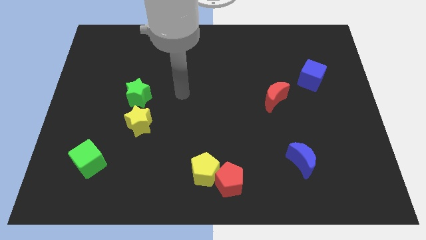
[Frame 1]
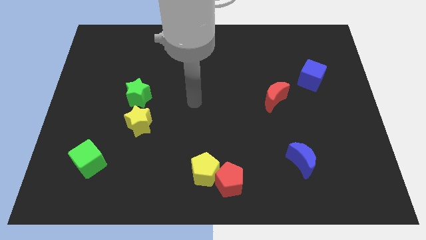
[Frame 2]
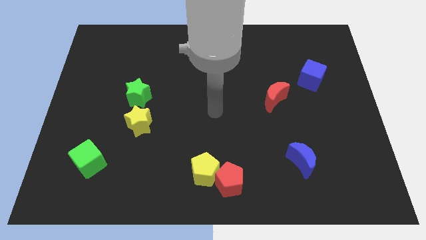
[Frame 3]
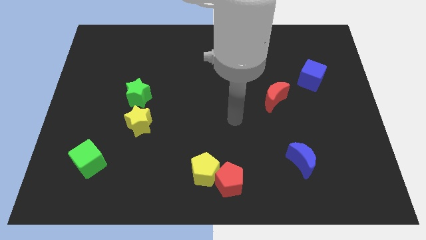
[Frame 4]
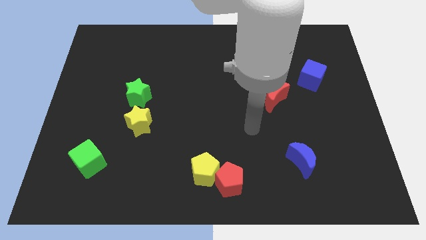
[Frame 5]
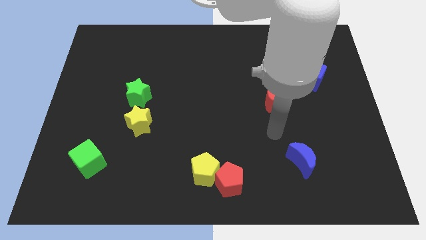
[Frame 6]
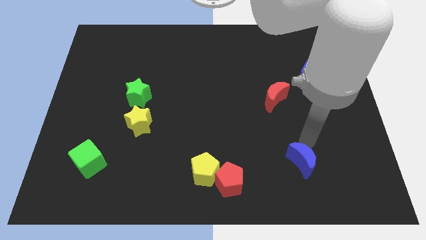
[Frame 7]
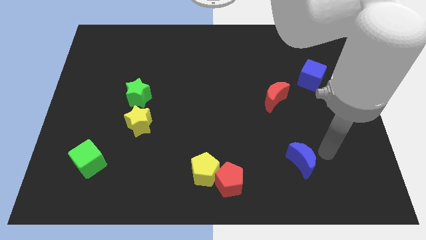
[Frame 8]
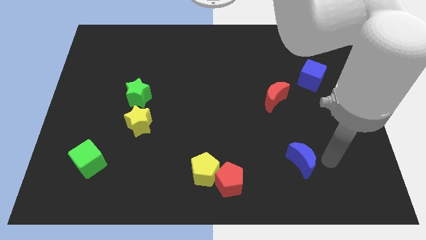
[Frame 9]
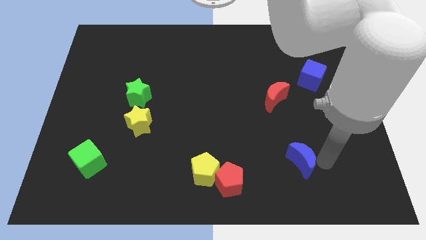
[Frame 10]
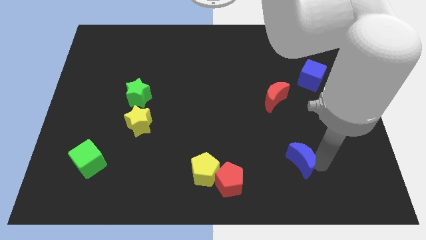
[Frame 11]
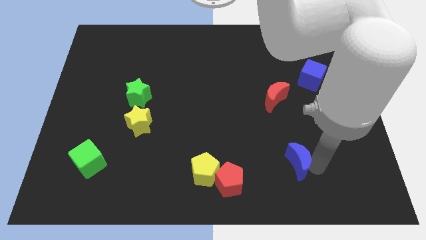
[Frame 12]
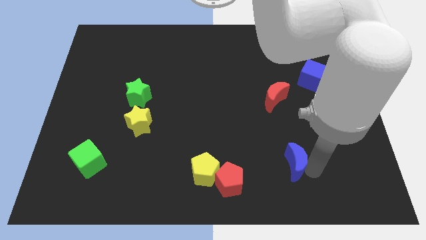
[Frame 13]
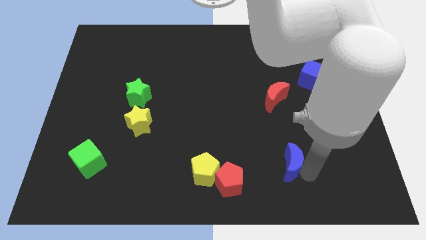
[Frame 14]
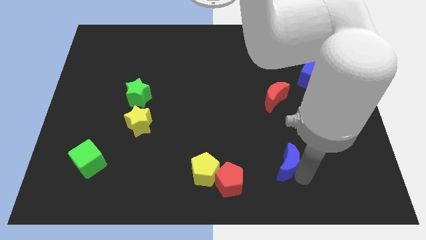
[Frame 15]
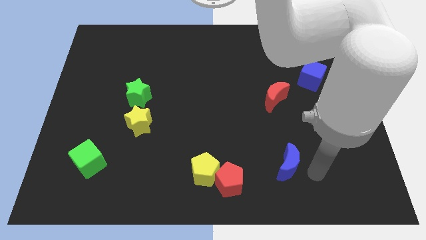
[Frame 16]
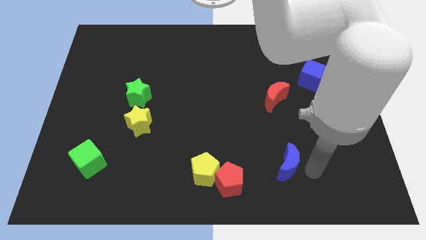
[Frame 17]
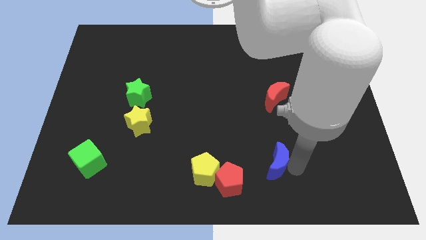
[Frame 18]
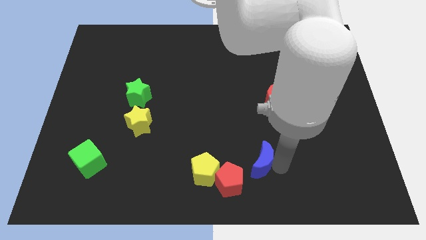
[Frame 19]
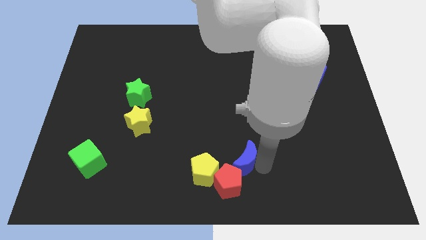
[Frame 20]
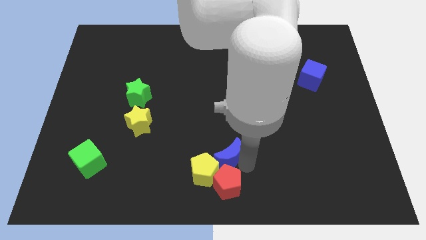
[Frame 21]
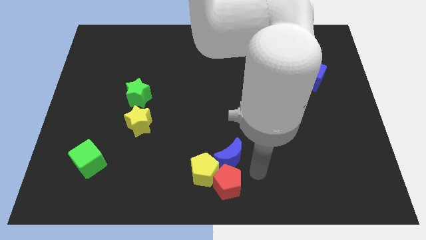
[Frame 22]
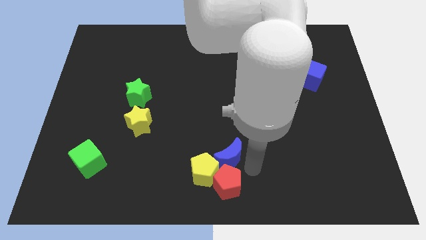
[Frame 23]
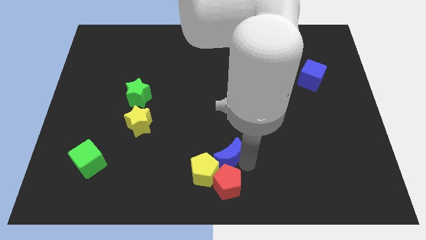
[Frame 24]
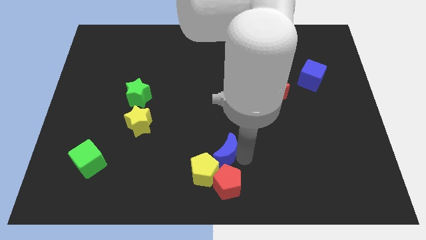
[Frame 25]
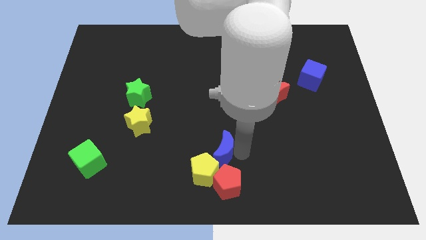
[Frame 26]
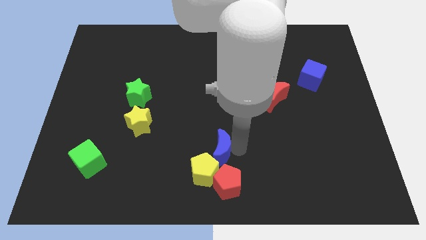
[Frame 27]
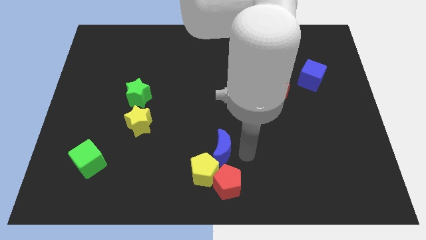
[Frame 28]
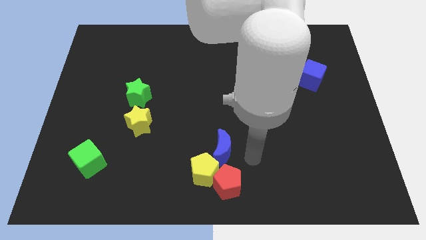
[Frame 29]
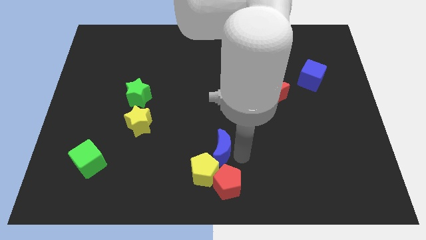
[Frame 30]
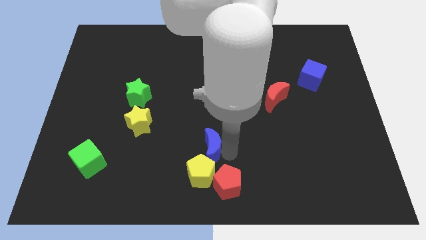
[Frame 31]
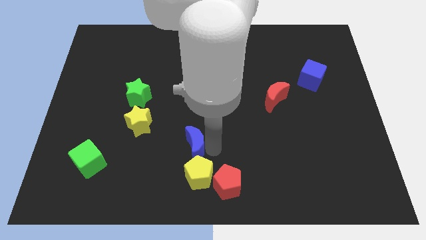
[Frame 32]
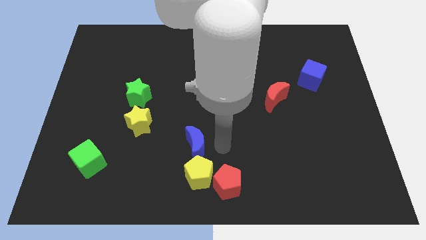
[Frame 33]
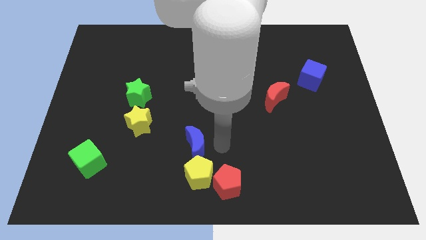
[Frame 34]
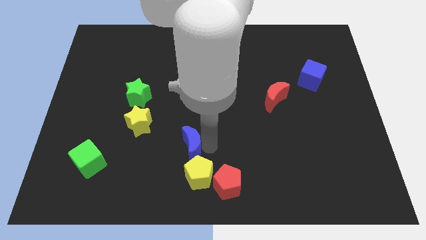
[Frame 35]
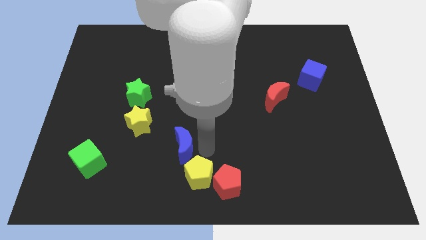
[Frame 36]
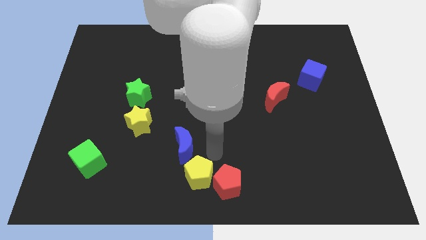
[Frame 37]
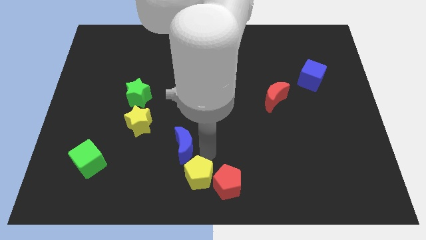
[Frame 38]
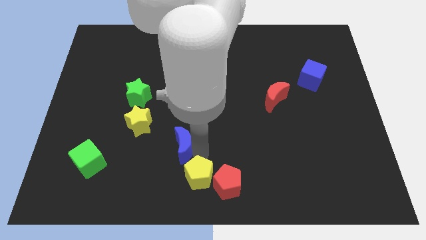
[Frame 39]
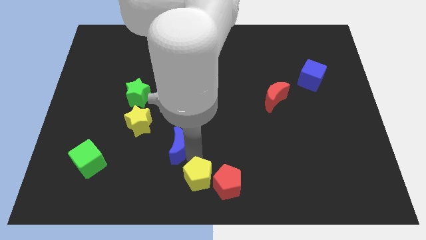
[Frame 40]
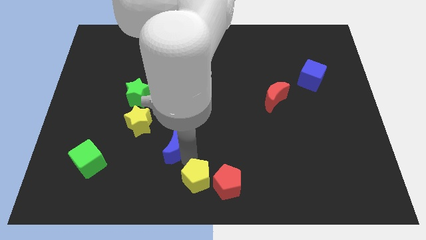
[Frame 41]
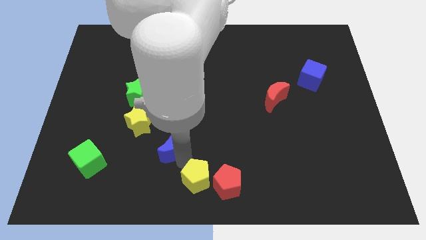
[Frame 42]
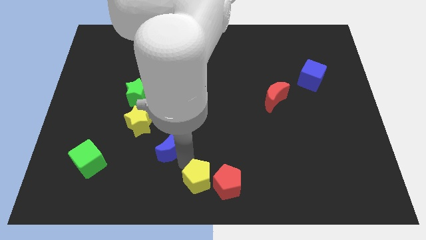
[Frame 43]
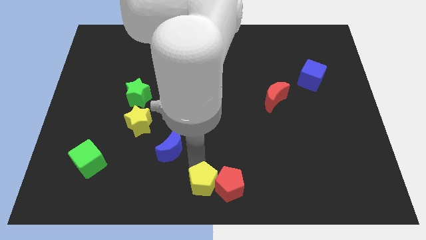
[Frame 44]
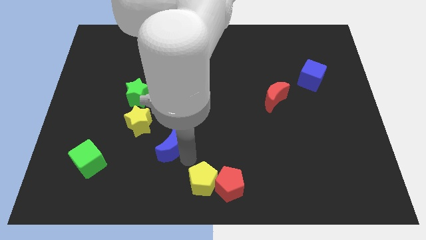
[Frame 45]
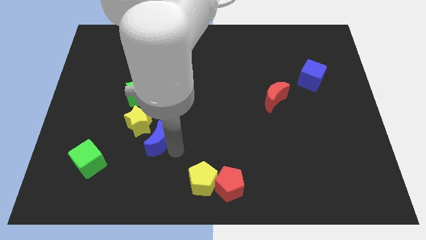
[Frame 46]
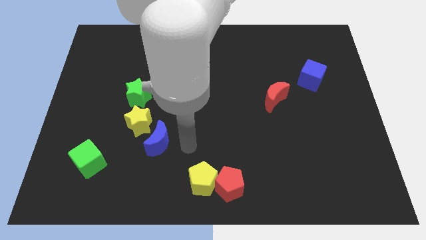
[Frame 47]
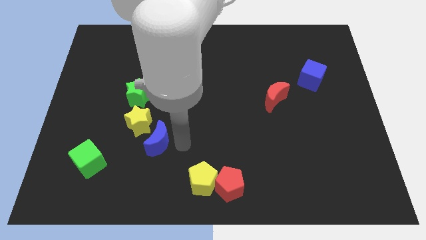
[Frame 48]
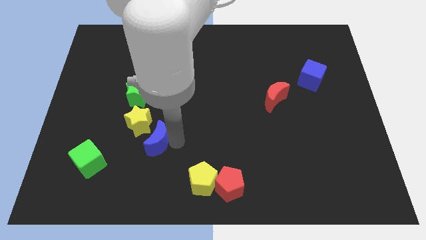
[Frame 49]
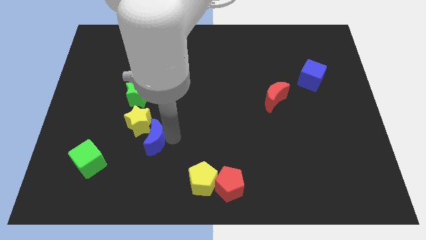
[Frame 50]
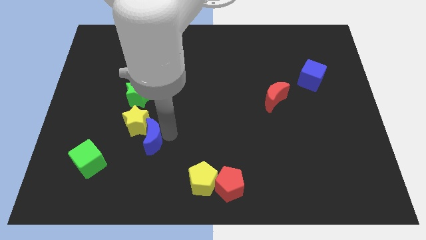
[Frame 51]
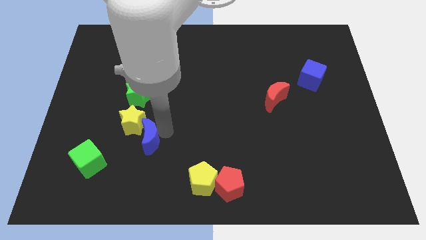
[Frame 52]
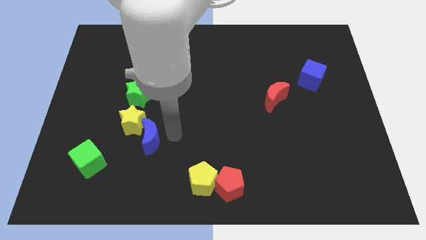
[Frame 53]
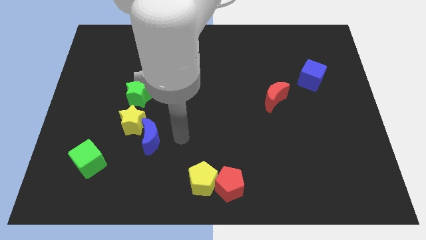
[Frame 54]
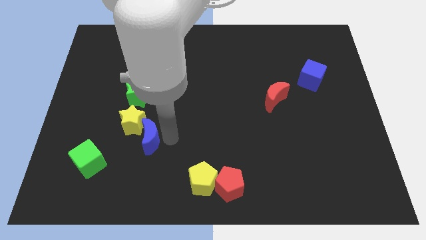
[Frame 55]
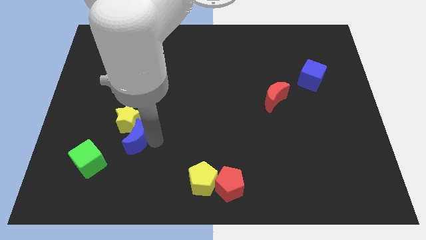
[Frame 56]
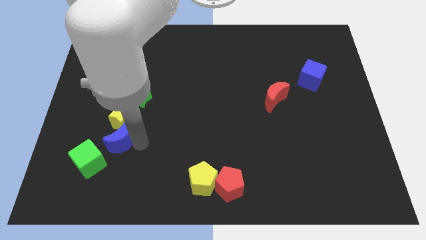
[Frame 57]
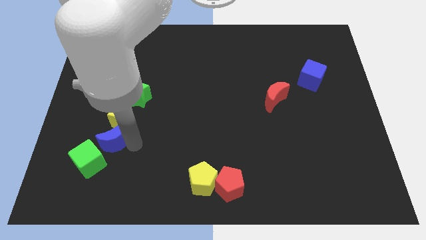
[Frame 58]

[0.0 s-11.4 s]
move the blue moon to the top side of the green cube

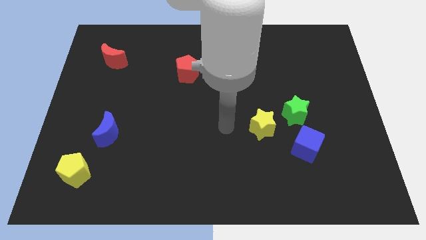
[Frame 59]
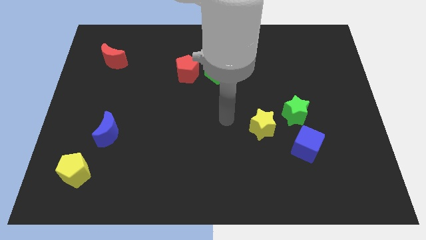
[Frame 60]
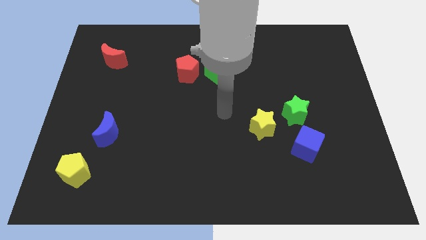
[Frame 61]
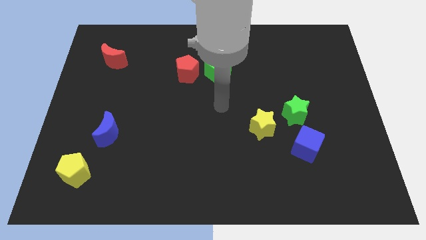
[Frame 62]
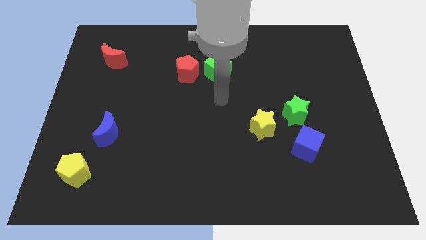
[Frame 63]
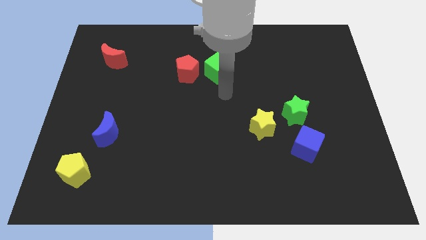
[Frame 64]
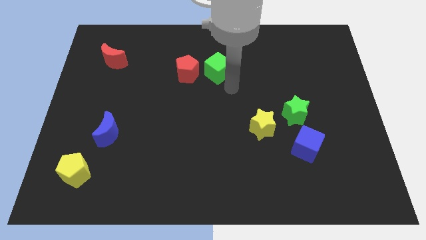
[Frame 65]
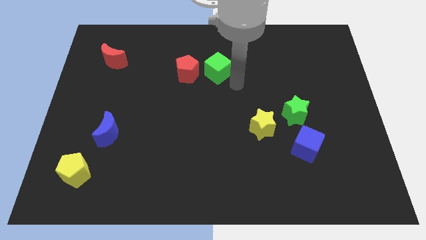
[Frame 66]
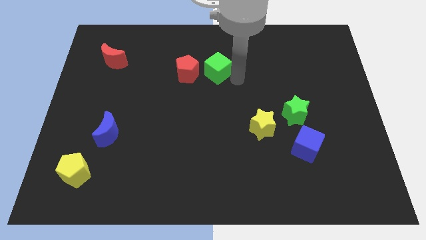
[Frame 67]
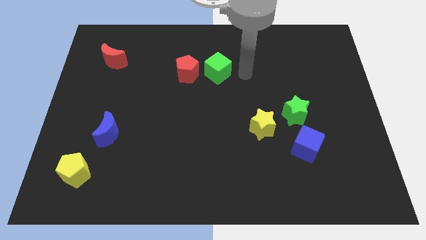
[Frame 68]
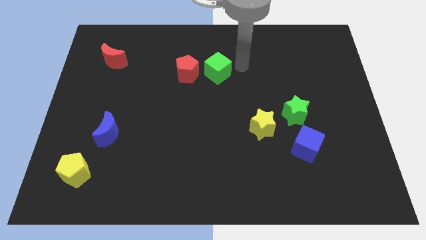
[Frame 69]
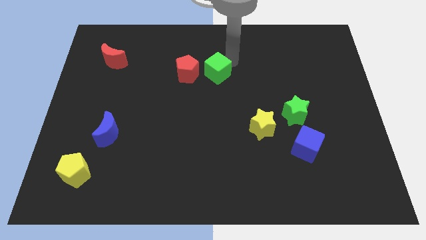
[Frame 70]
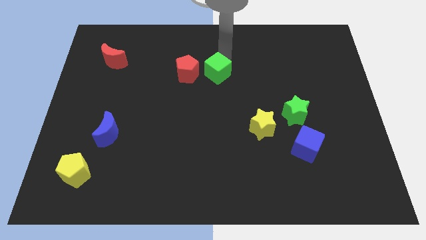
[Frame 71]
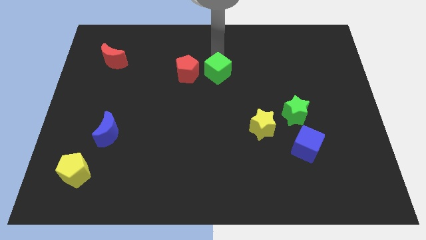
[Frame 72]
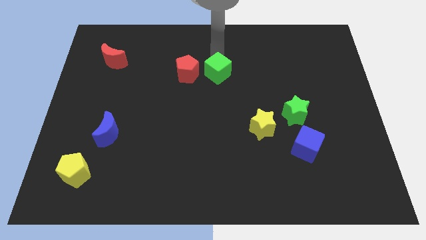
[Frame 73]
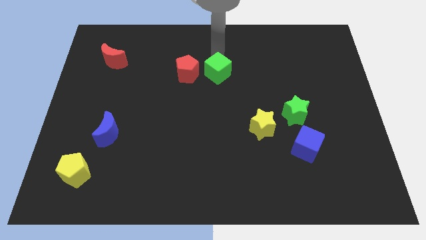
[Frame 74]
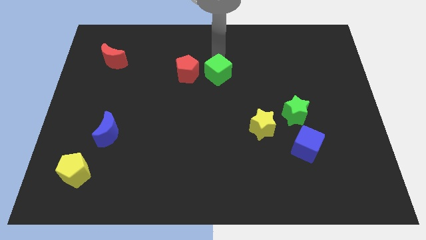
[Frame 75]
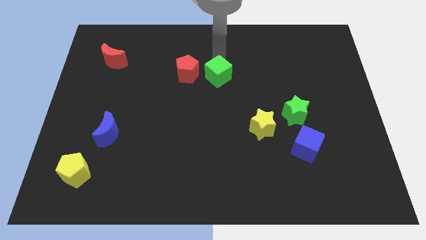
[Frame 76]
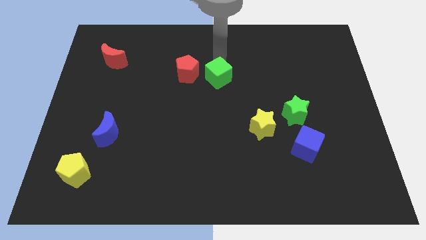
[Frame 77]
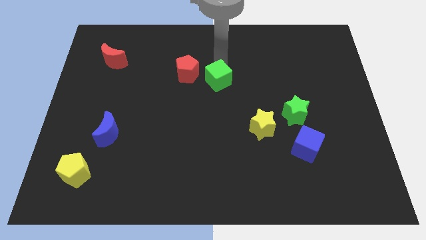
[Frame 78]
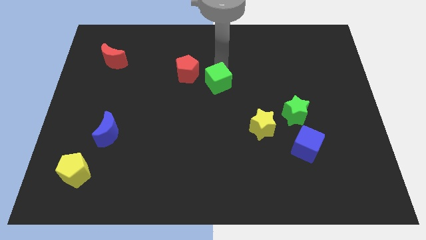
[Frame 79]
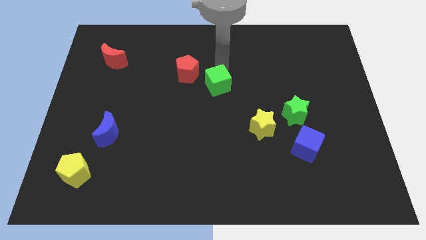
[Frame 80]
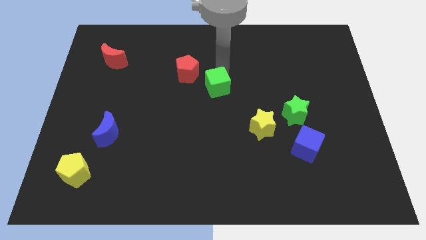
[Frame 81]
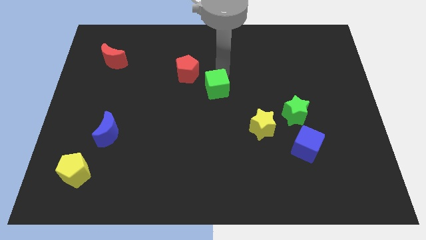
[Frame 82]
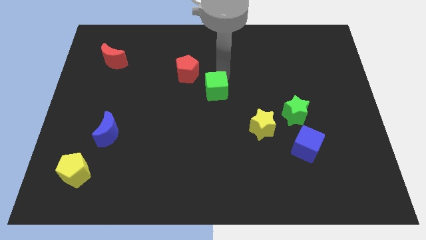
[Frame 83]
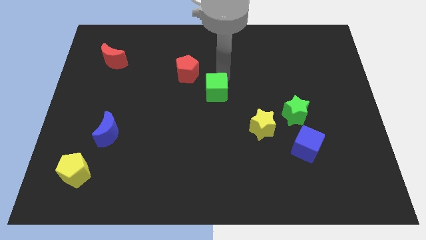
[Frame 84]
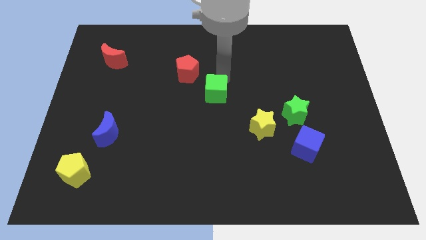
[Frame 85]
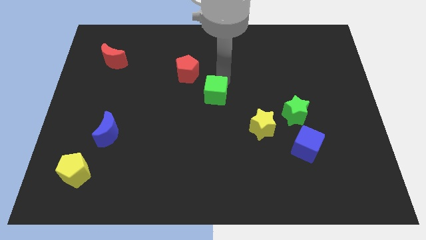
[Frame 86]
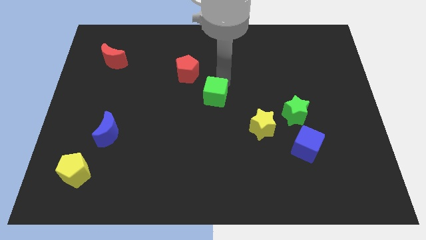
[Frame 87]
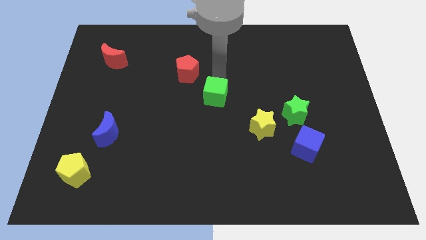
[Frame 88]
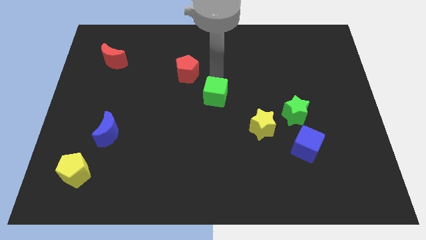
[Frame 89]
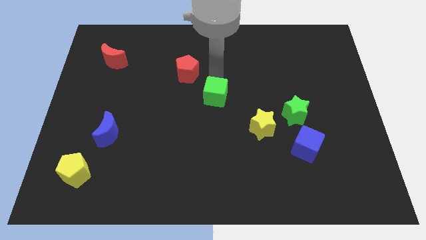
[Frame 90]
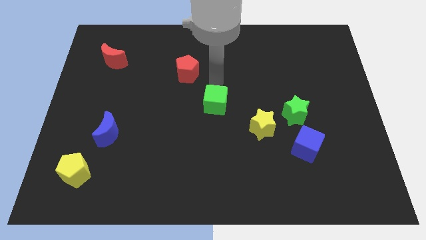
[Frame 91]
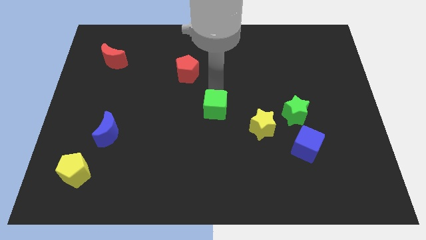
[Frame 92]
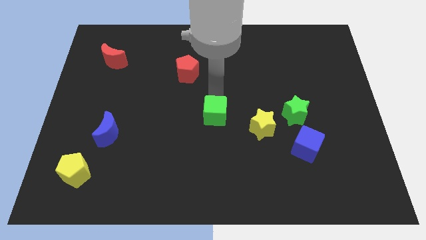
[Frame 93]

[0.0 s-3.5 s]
slide the green cube to the left side of the yellow star
